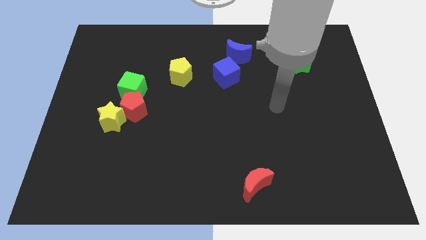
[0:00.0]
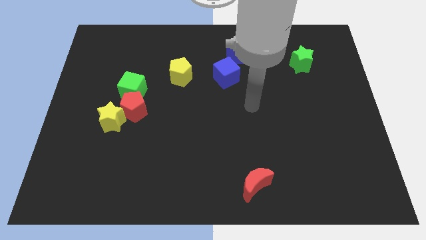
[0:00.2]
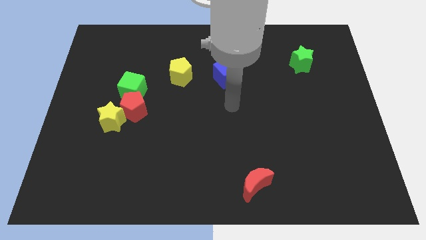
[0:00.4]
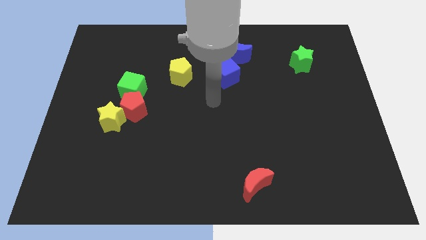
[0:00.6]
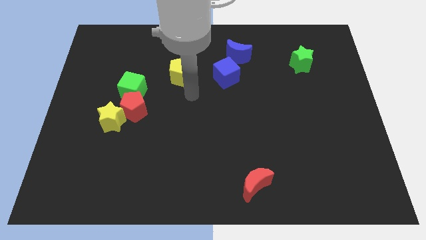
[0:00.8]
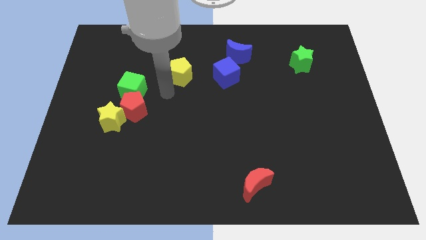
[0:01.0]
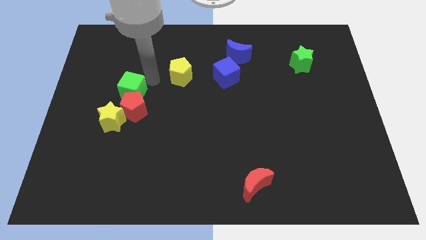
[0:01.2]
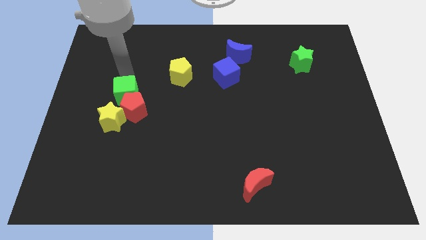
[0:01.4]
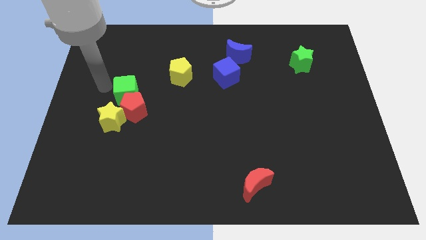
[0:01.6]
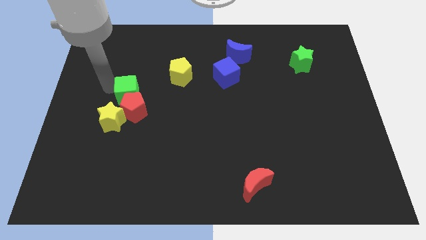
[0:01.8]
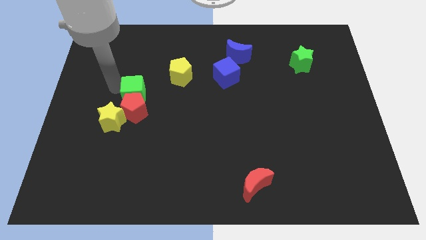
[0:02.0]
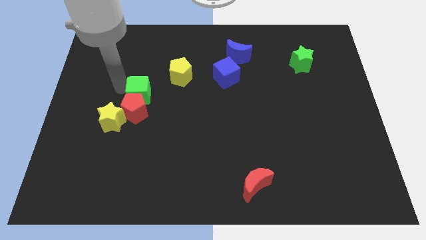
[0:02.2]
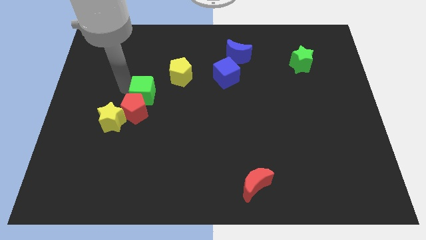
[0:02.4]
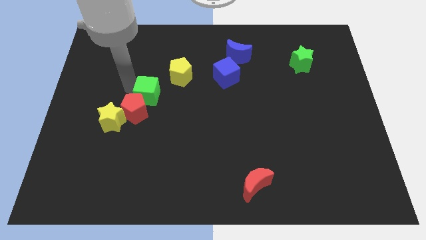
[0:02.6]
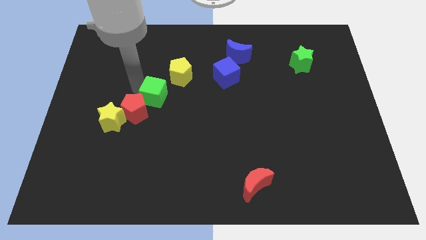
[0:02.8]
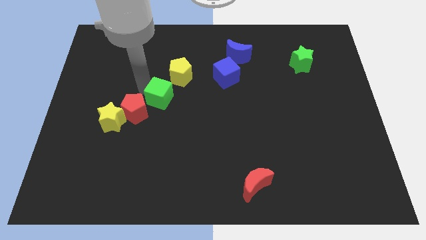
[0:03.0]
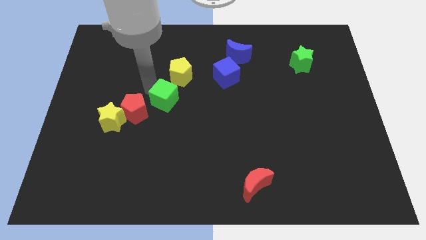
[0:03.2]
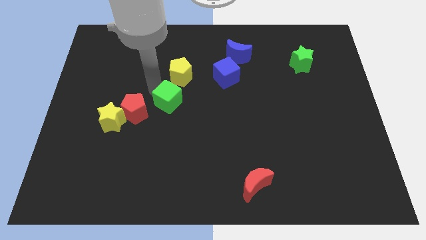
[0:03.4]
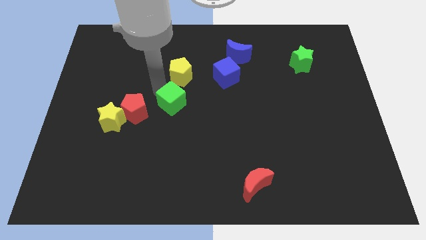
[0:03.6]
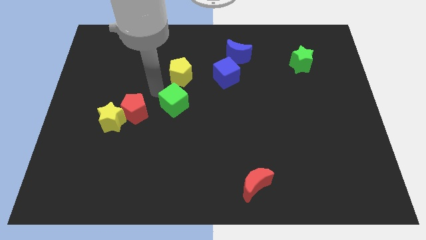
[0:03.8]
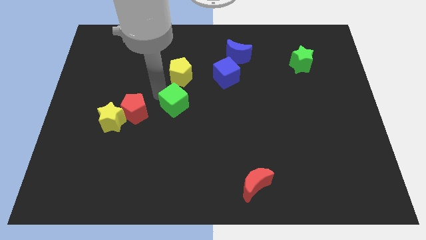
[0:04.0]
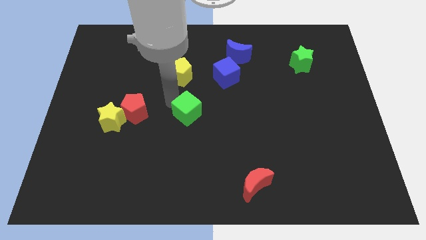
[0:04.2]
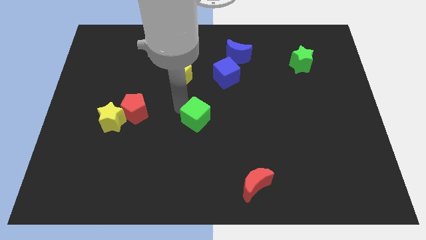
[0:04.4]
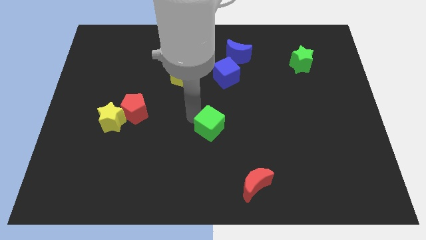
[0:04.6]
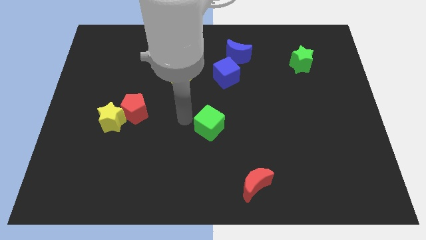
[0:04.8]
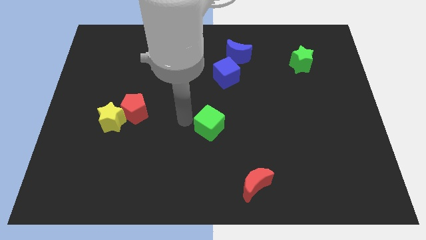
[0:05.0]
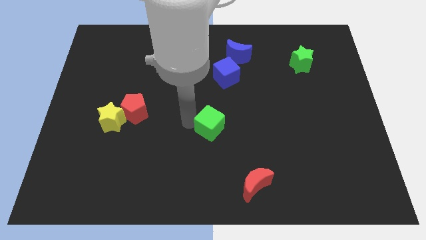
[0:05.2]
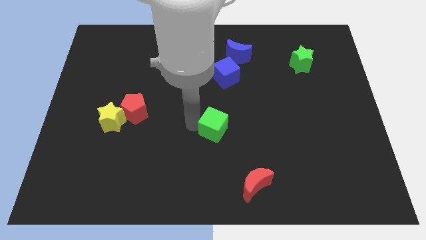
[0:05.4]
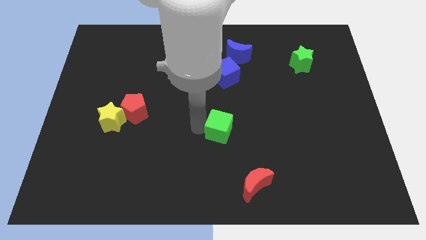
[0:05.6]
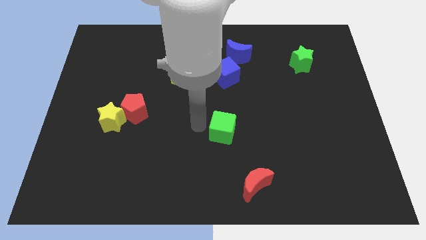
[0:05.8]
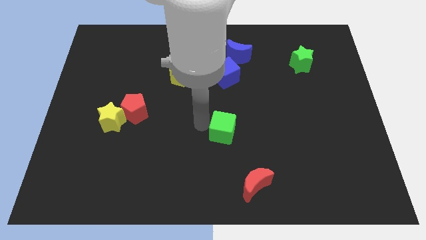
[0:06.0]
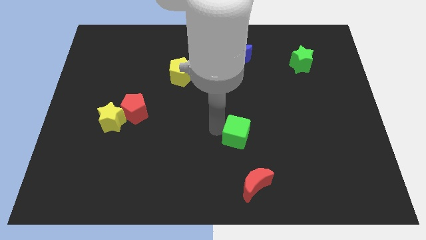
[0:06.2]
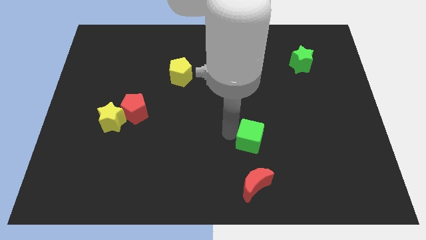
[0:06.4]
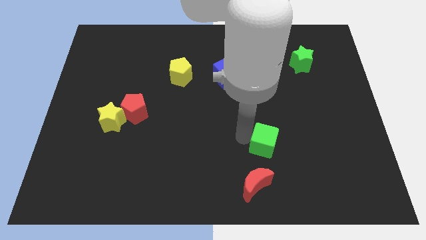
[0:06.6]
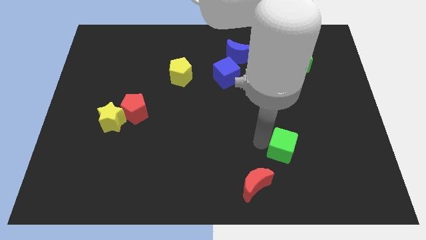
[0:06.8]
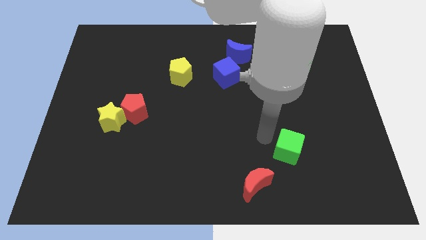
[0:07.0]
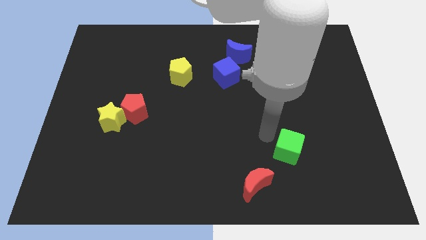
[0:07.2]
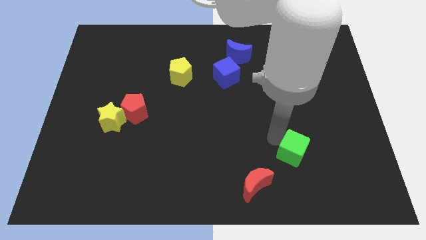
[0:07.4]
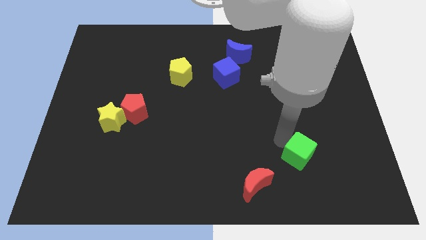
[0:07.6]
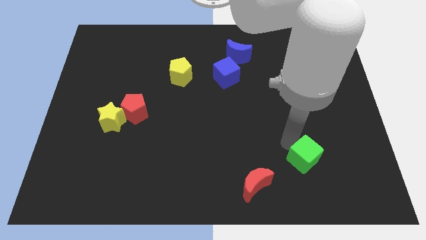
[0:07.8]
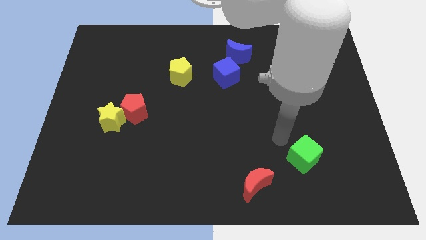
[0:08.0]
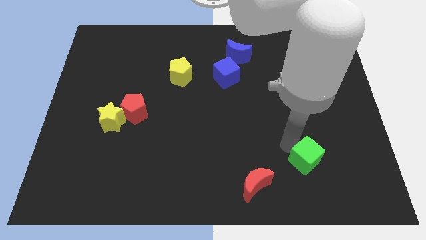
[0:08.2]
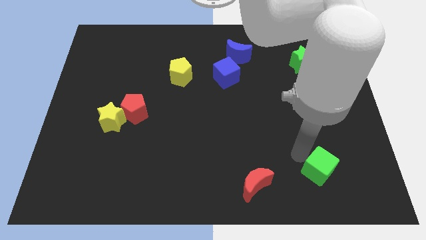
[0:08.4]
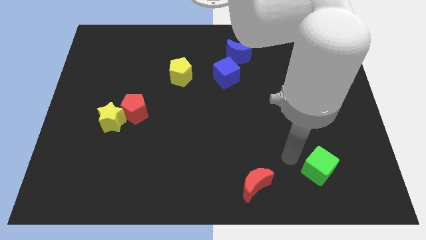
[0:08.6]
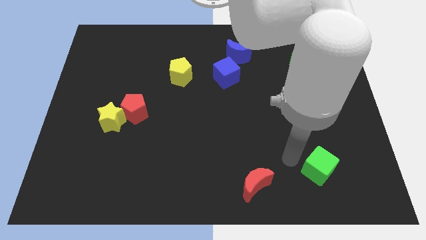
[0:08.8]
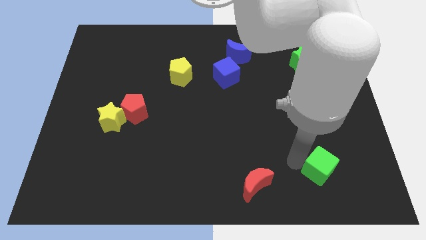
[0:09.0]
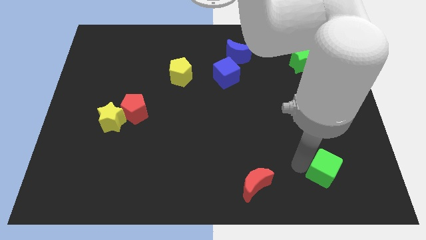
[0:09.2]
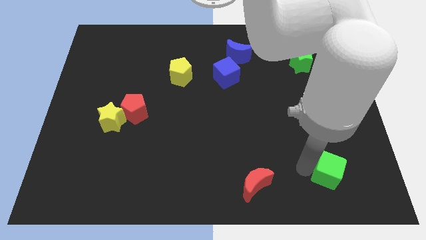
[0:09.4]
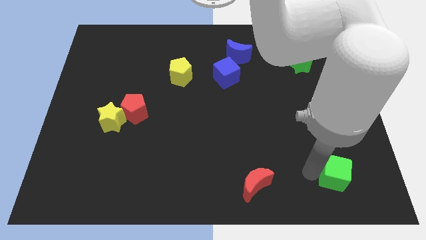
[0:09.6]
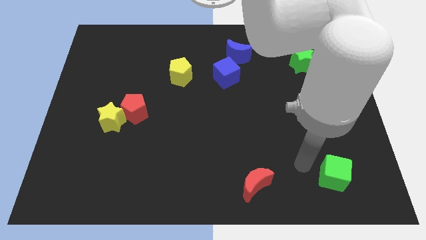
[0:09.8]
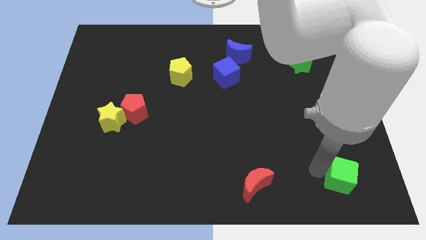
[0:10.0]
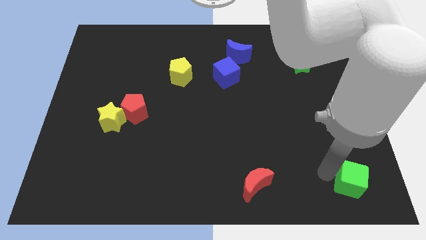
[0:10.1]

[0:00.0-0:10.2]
put the green cube to the lower right corner
